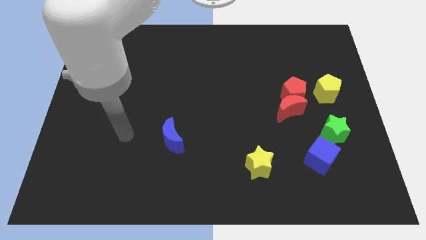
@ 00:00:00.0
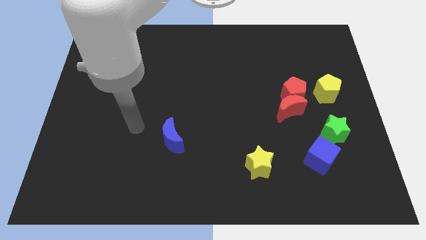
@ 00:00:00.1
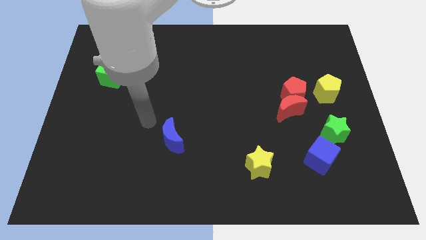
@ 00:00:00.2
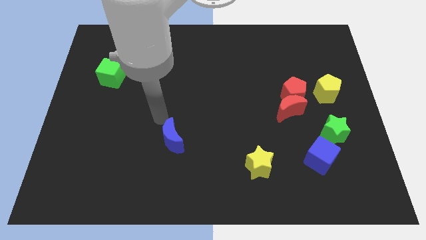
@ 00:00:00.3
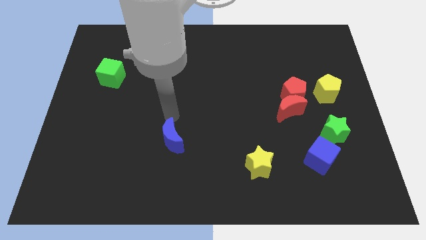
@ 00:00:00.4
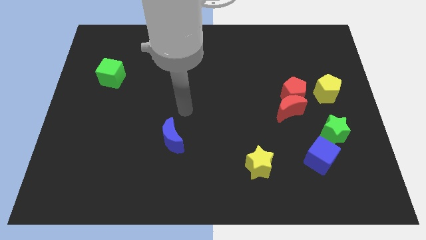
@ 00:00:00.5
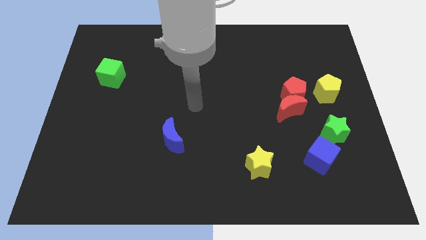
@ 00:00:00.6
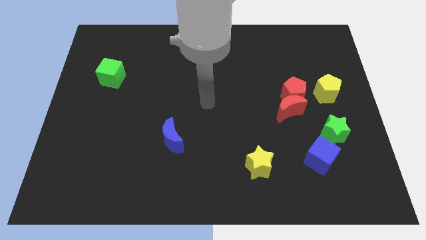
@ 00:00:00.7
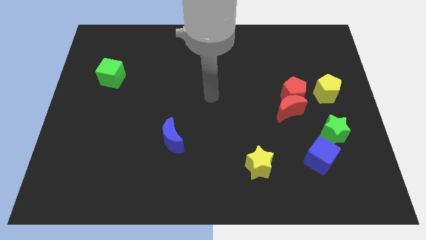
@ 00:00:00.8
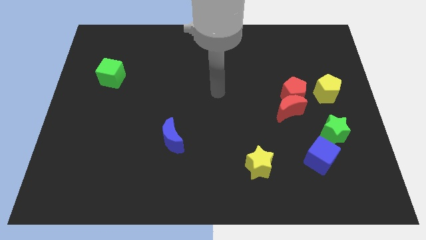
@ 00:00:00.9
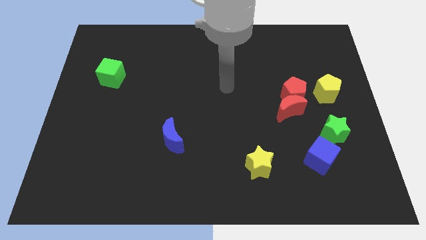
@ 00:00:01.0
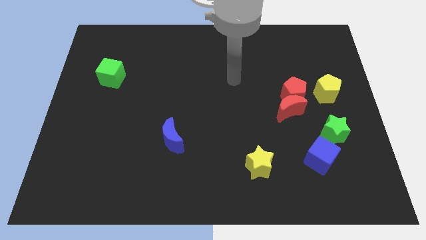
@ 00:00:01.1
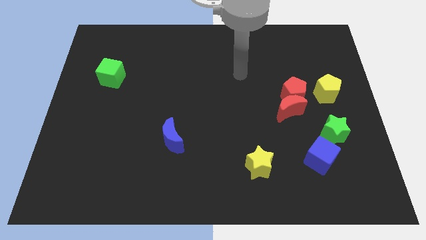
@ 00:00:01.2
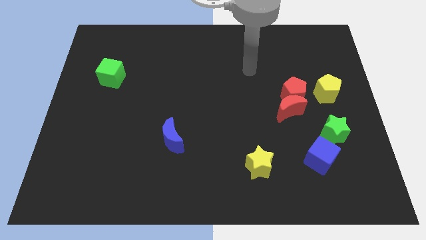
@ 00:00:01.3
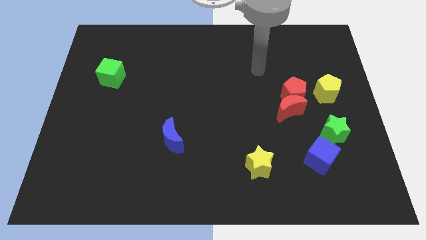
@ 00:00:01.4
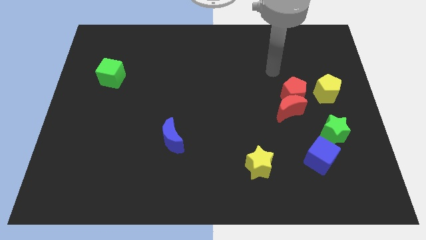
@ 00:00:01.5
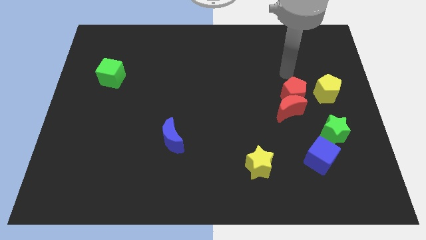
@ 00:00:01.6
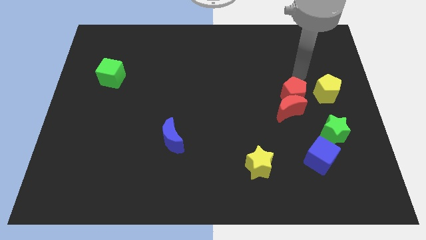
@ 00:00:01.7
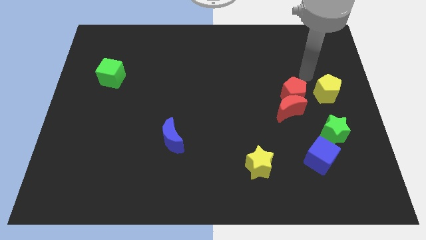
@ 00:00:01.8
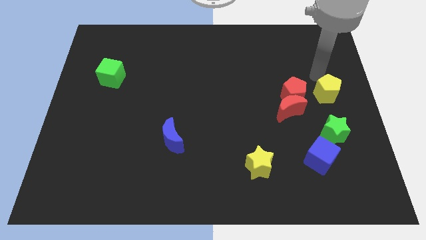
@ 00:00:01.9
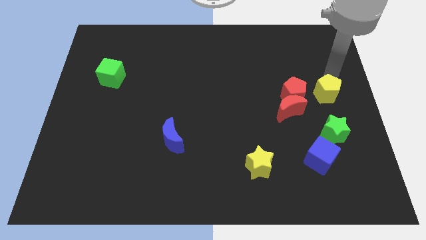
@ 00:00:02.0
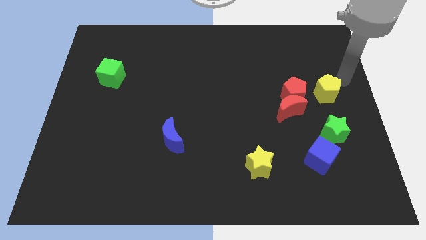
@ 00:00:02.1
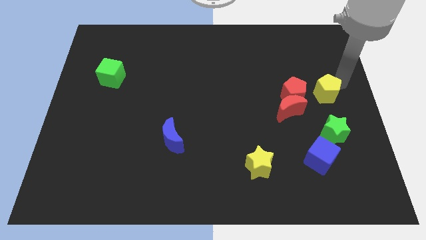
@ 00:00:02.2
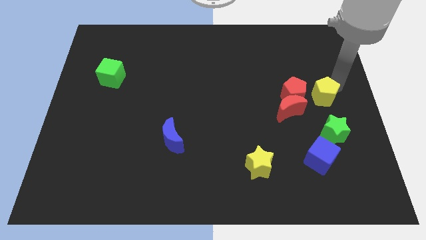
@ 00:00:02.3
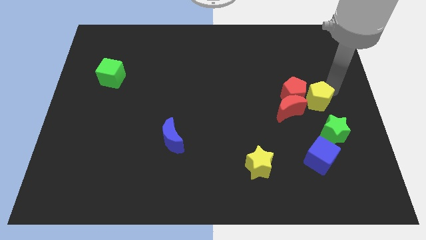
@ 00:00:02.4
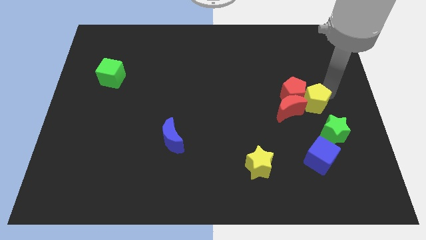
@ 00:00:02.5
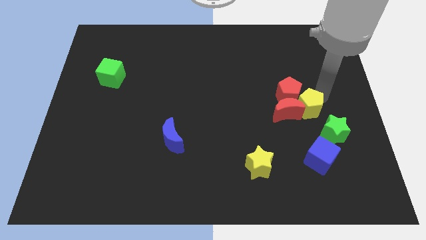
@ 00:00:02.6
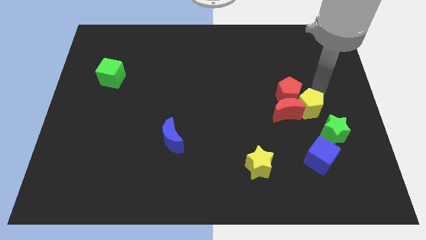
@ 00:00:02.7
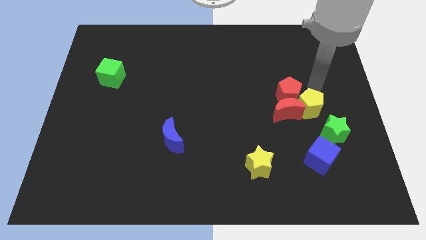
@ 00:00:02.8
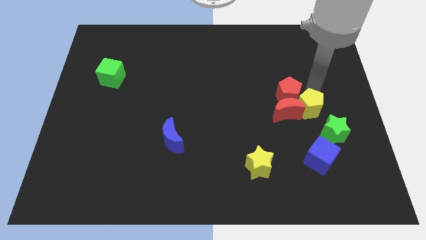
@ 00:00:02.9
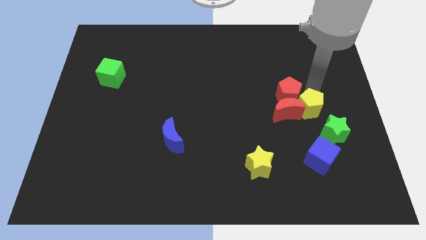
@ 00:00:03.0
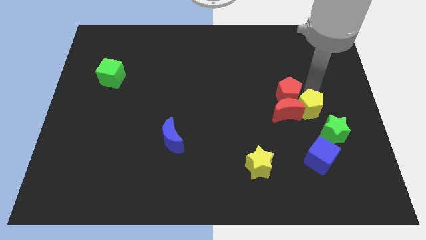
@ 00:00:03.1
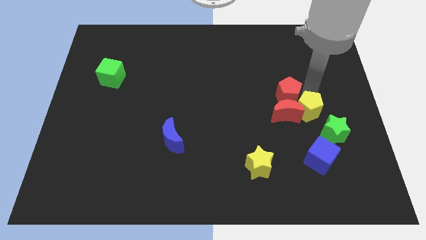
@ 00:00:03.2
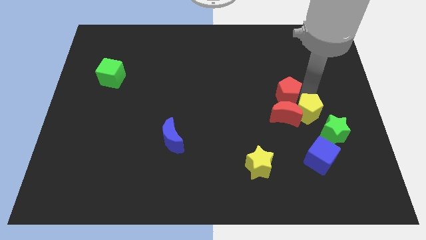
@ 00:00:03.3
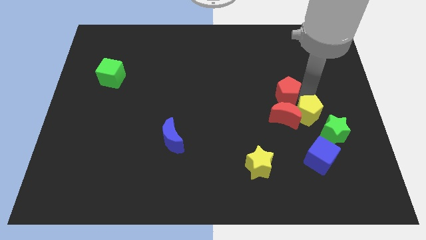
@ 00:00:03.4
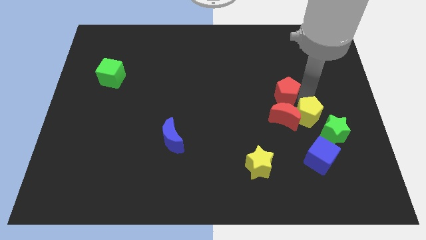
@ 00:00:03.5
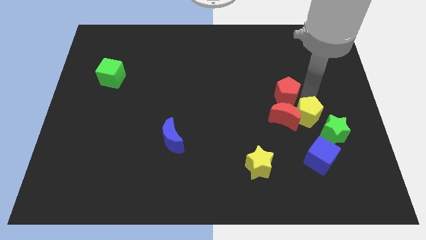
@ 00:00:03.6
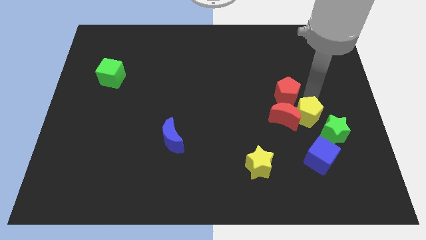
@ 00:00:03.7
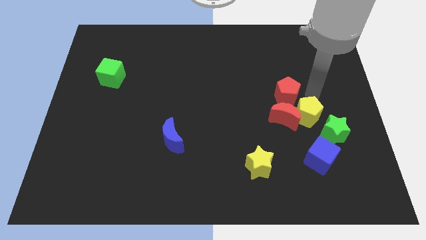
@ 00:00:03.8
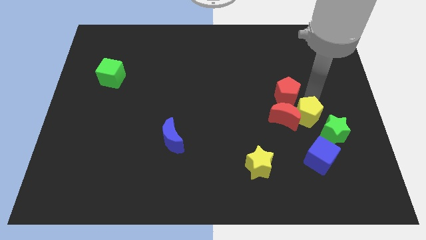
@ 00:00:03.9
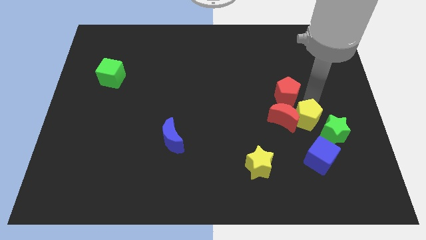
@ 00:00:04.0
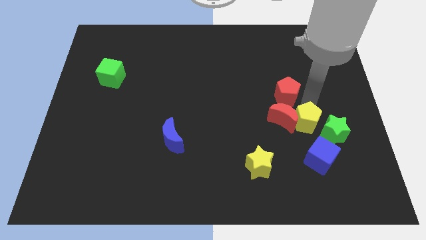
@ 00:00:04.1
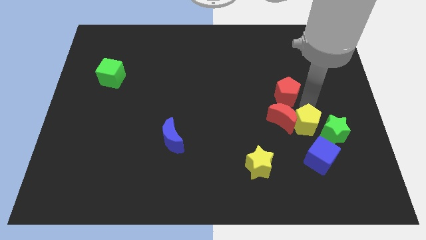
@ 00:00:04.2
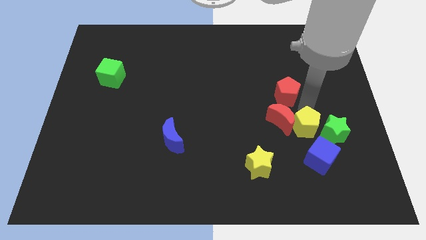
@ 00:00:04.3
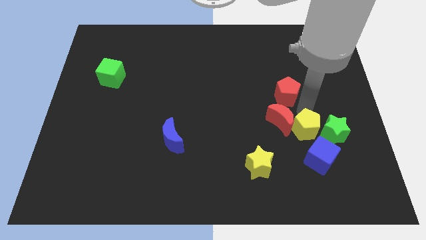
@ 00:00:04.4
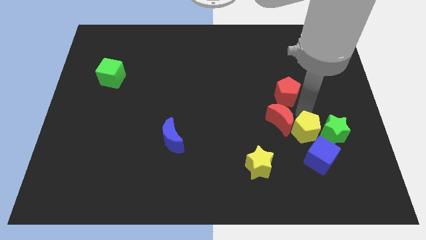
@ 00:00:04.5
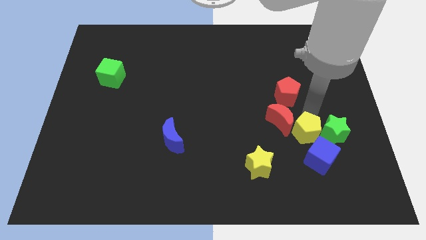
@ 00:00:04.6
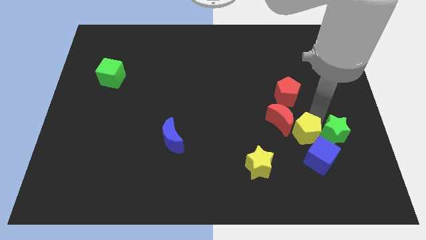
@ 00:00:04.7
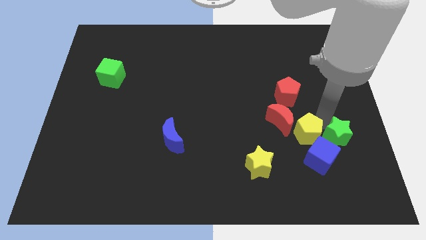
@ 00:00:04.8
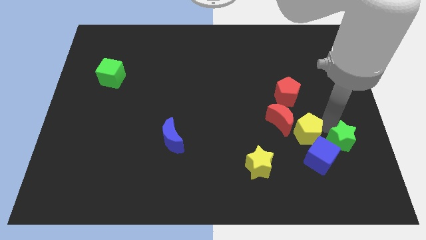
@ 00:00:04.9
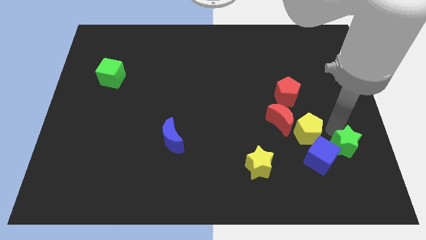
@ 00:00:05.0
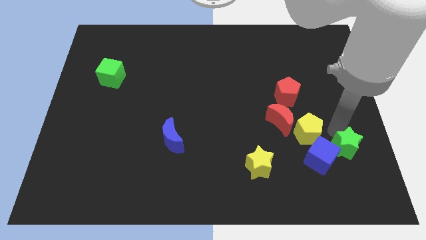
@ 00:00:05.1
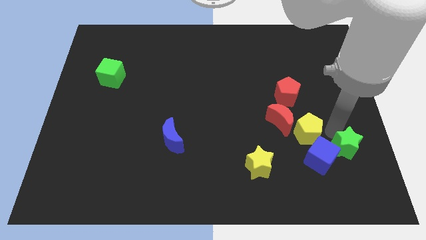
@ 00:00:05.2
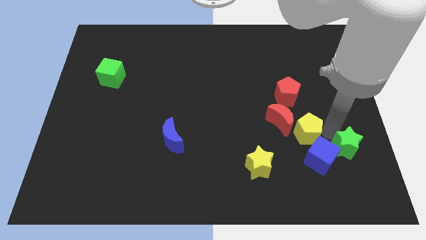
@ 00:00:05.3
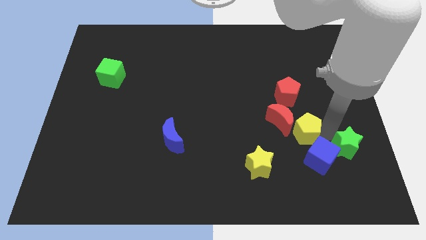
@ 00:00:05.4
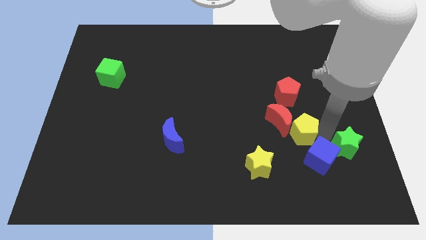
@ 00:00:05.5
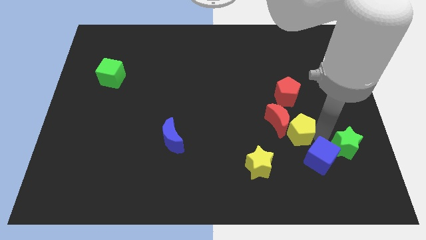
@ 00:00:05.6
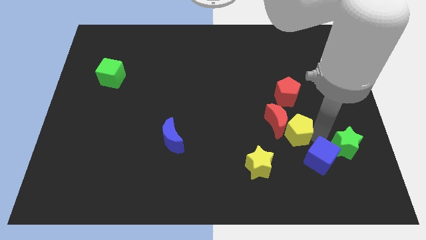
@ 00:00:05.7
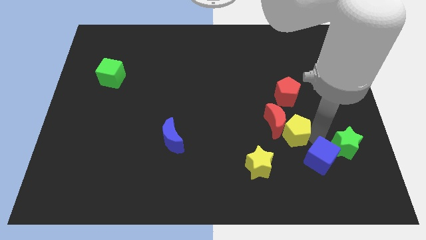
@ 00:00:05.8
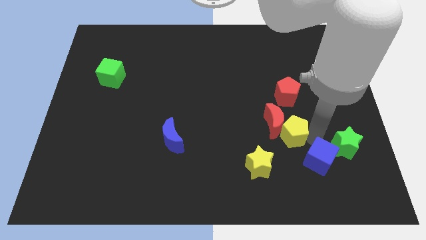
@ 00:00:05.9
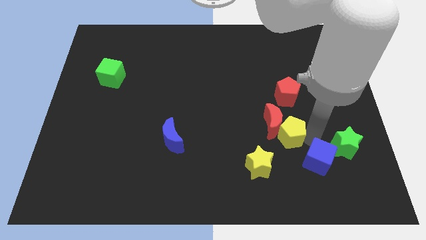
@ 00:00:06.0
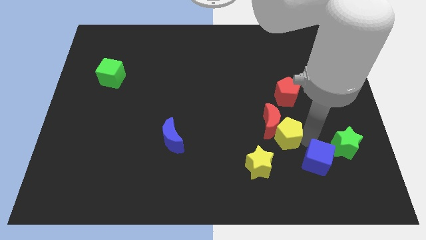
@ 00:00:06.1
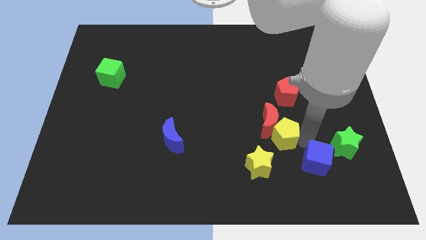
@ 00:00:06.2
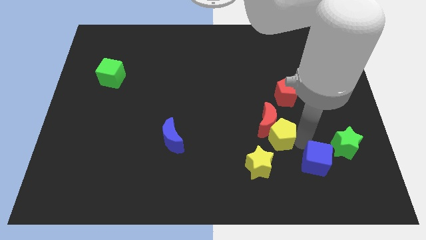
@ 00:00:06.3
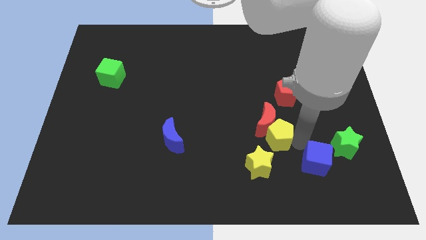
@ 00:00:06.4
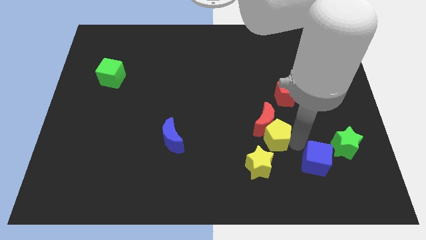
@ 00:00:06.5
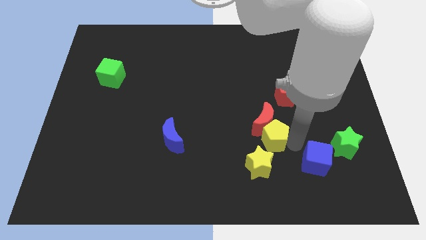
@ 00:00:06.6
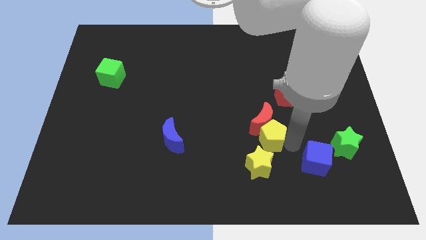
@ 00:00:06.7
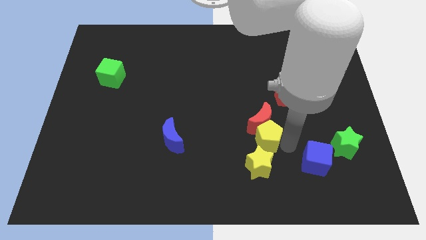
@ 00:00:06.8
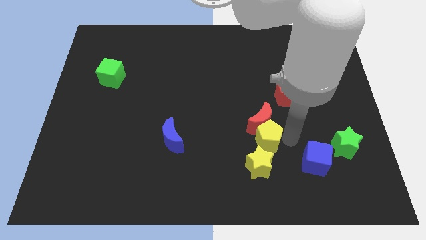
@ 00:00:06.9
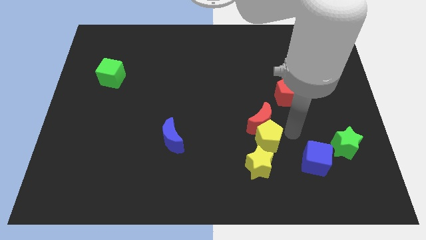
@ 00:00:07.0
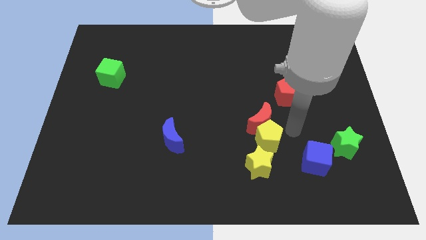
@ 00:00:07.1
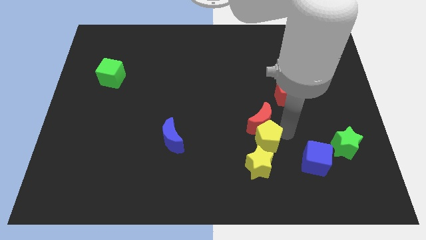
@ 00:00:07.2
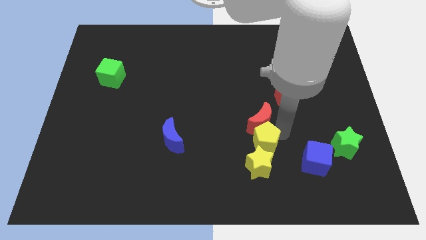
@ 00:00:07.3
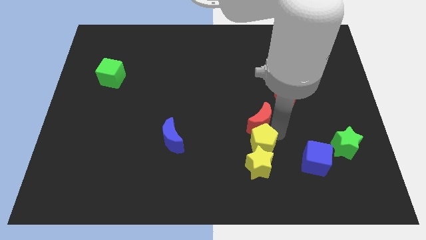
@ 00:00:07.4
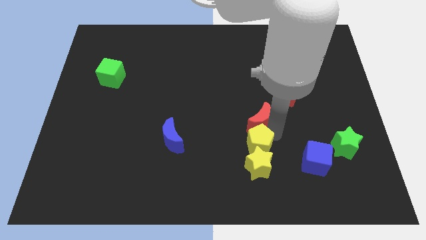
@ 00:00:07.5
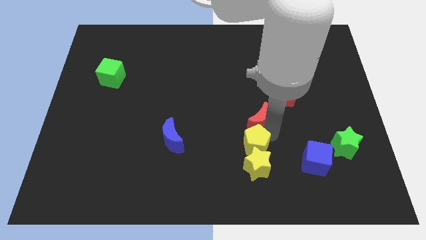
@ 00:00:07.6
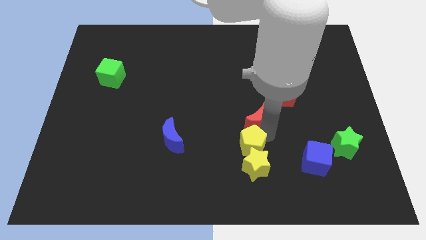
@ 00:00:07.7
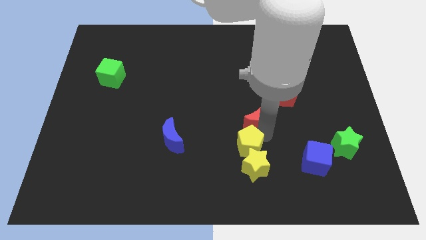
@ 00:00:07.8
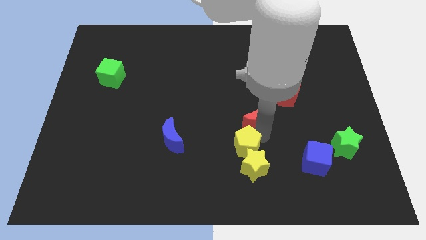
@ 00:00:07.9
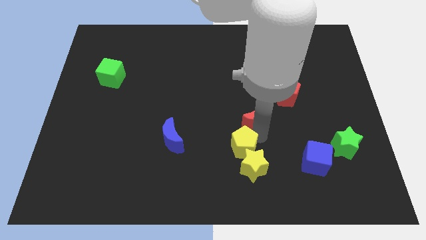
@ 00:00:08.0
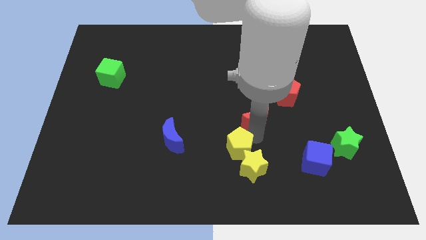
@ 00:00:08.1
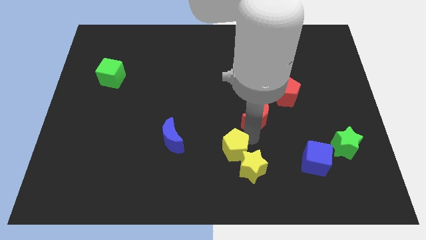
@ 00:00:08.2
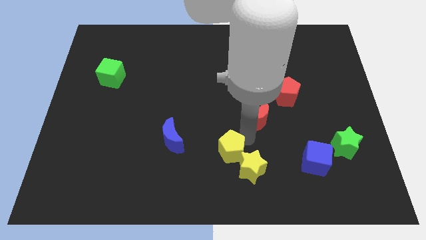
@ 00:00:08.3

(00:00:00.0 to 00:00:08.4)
move the yellow pentagon to the left side of the yellow star
